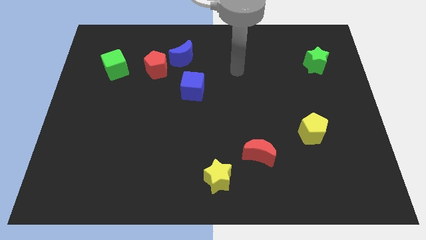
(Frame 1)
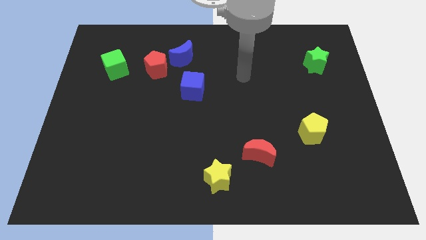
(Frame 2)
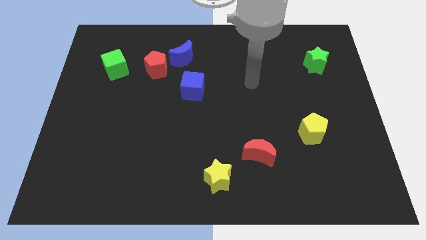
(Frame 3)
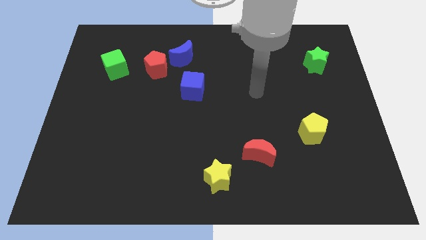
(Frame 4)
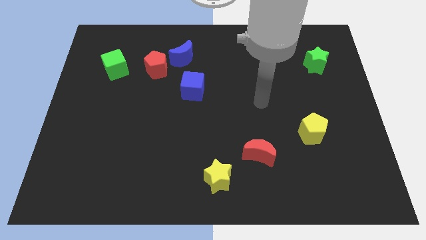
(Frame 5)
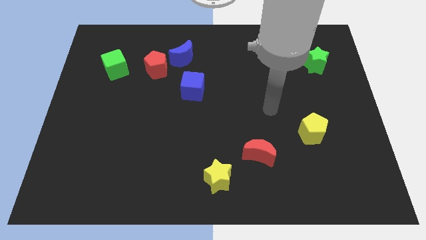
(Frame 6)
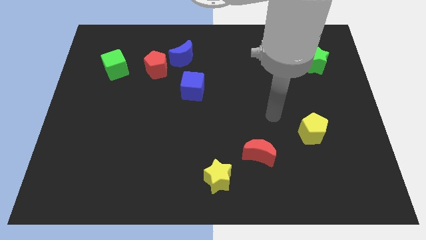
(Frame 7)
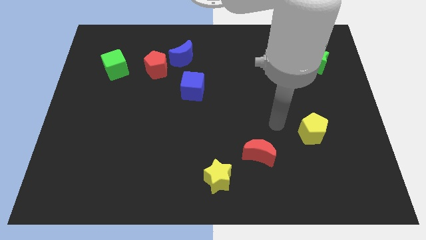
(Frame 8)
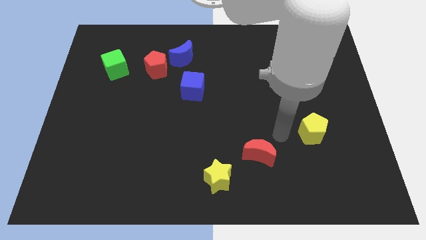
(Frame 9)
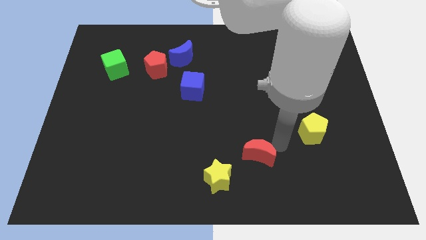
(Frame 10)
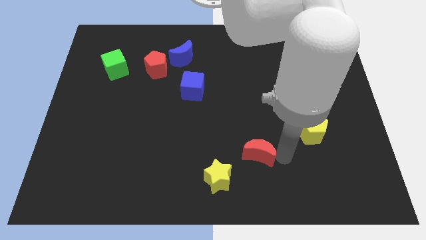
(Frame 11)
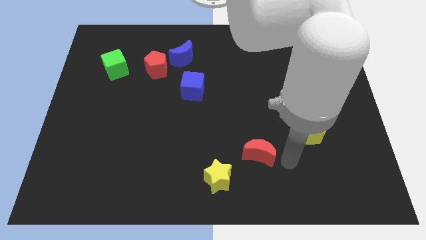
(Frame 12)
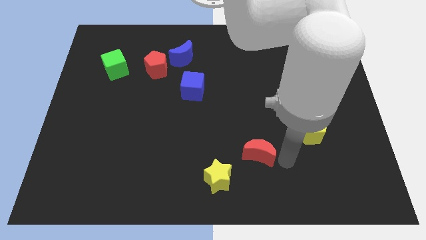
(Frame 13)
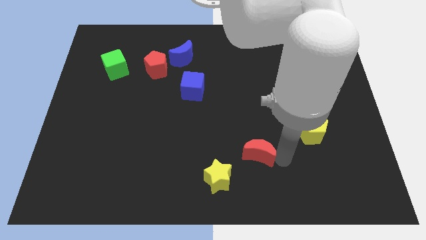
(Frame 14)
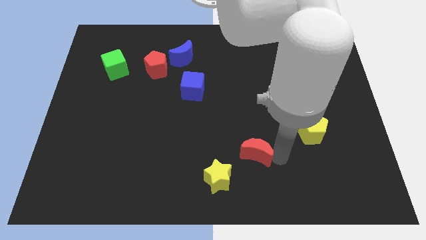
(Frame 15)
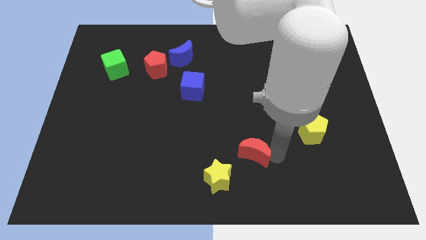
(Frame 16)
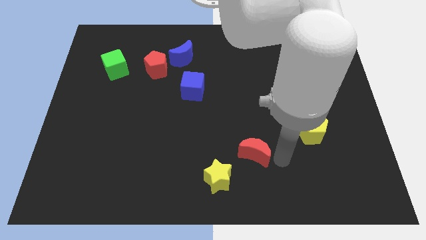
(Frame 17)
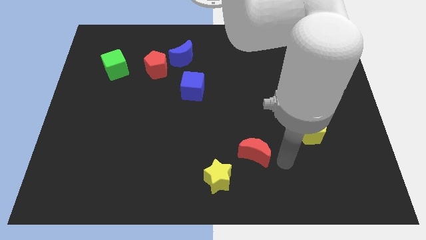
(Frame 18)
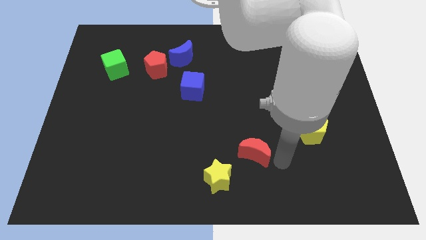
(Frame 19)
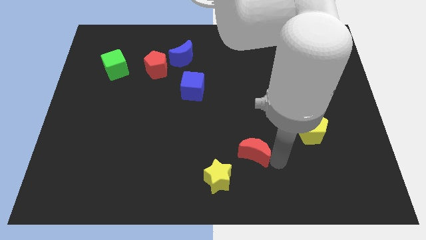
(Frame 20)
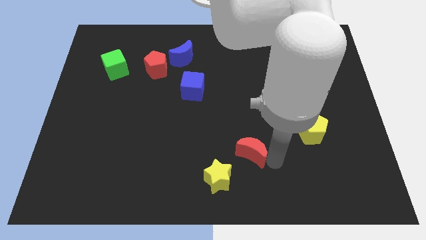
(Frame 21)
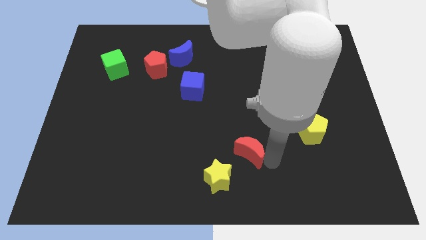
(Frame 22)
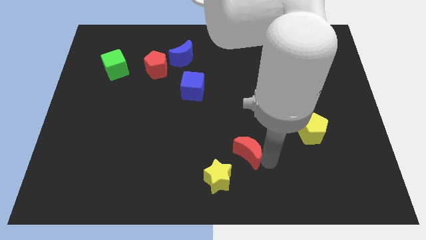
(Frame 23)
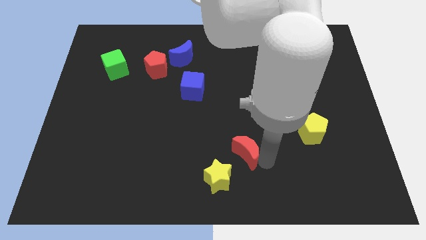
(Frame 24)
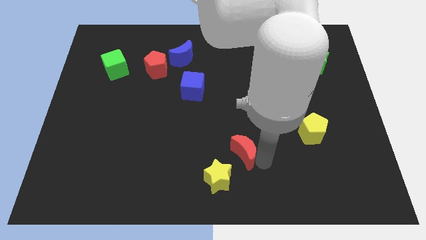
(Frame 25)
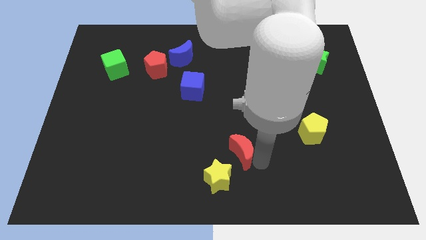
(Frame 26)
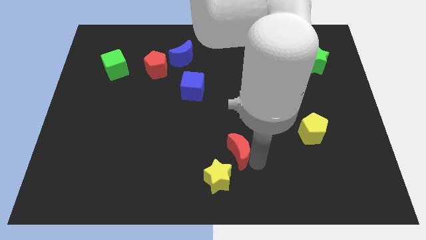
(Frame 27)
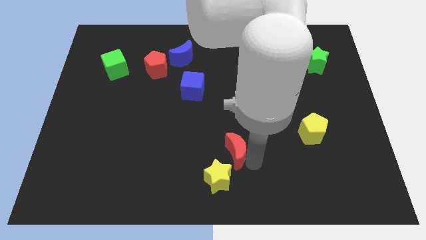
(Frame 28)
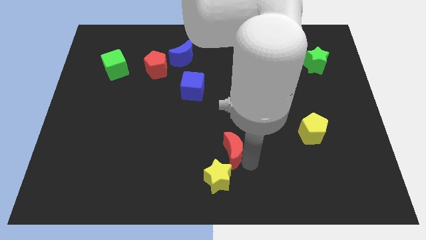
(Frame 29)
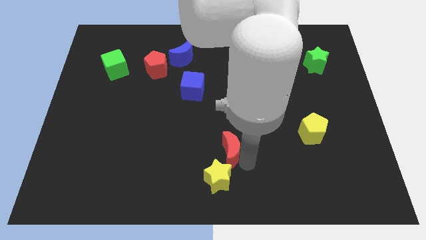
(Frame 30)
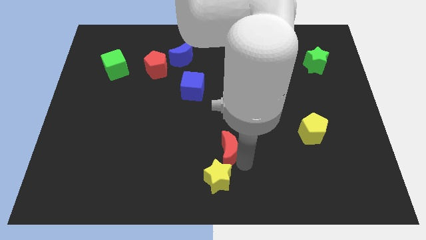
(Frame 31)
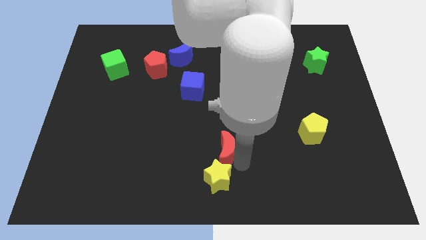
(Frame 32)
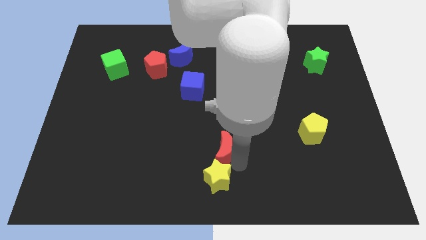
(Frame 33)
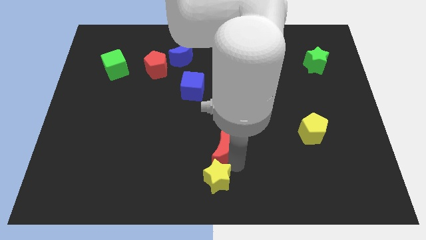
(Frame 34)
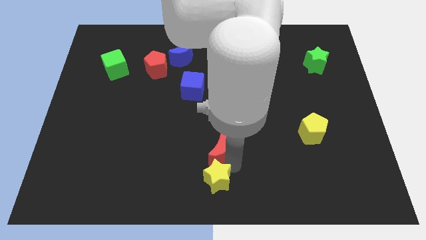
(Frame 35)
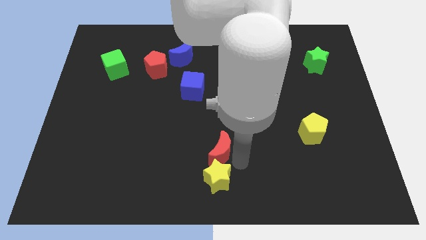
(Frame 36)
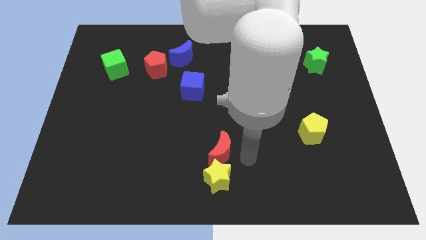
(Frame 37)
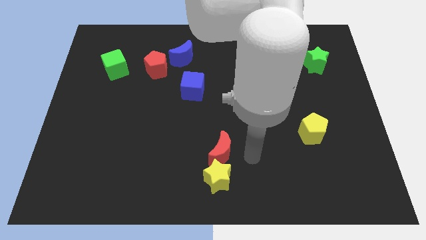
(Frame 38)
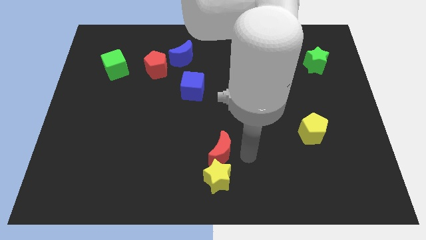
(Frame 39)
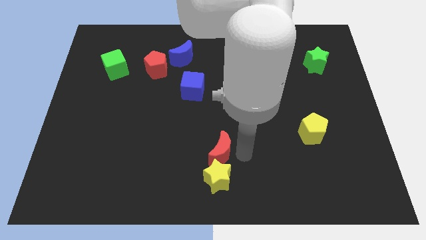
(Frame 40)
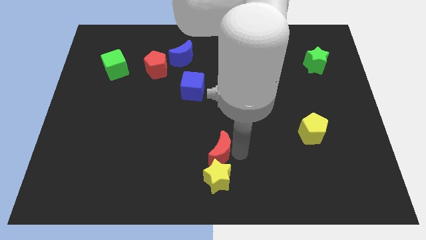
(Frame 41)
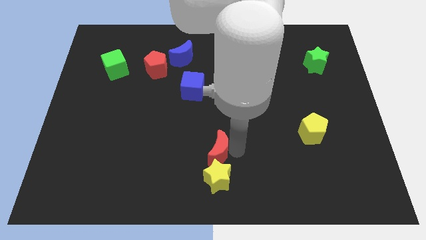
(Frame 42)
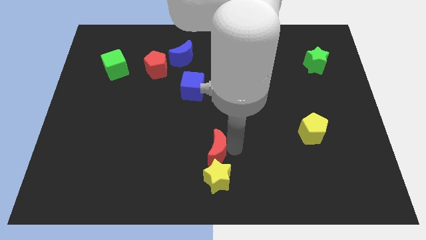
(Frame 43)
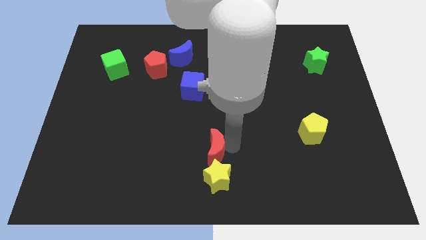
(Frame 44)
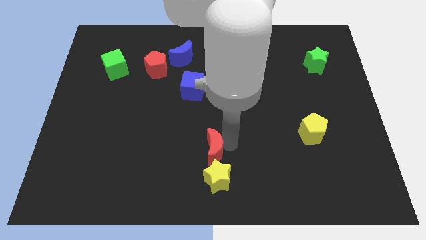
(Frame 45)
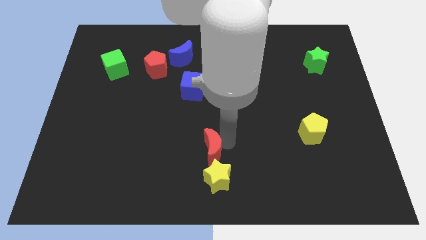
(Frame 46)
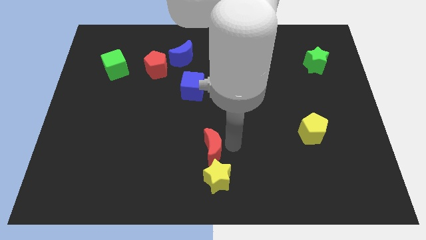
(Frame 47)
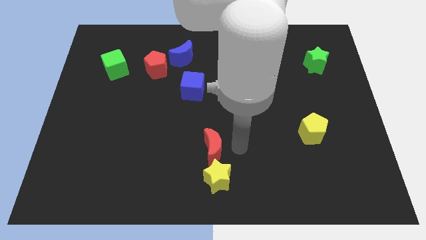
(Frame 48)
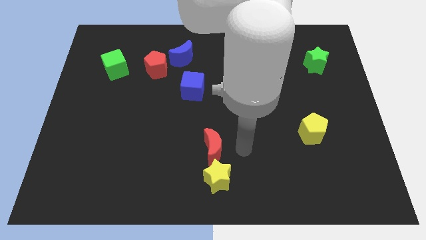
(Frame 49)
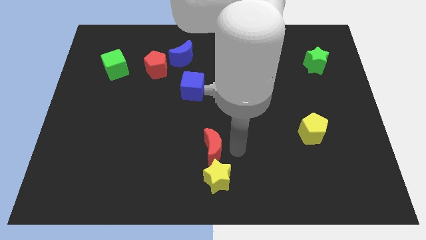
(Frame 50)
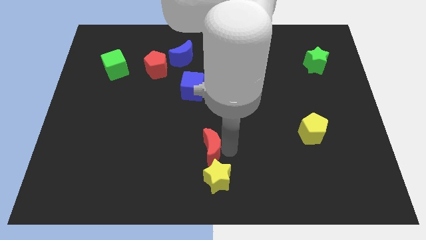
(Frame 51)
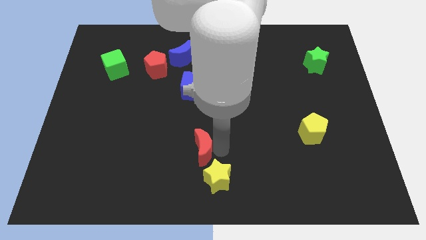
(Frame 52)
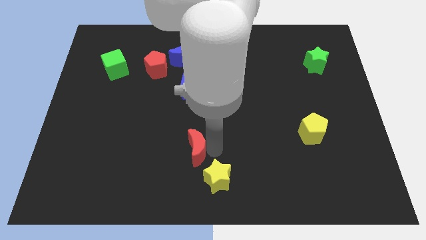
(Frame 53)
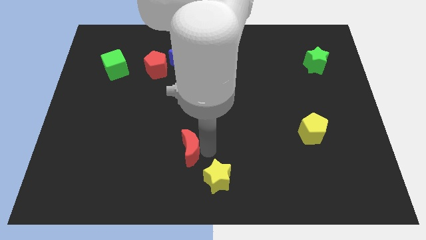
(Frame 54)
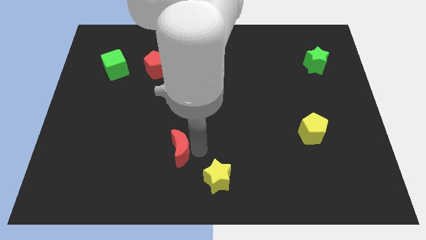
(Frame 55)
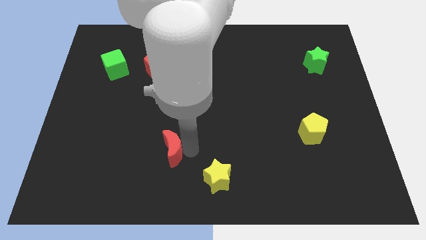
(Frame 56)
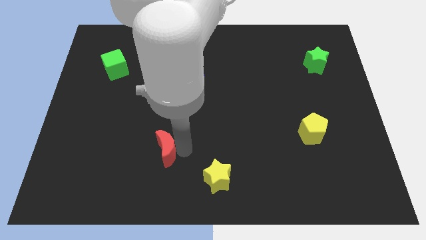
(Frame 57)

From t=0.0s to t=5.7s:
slide the red moon to the left

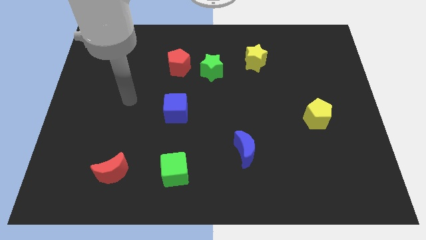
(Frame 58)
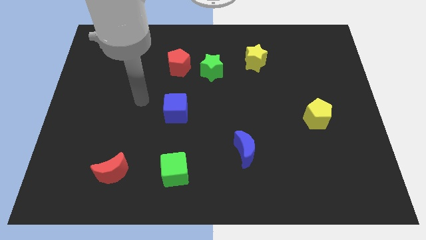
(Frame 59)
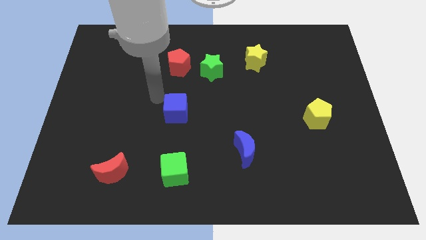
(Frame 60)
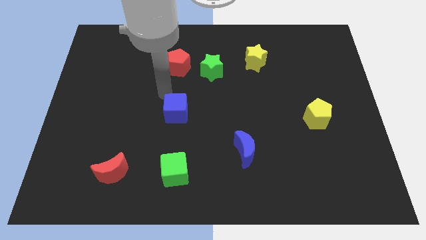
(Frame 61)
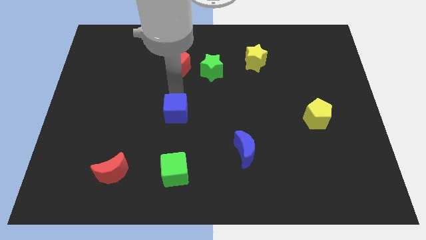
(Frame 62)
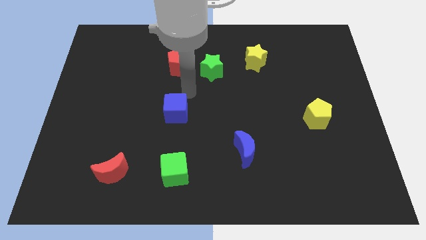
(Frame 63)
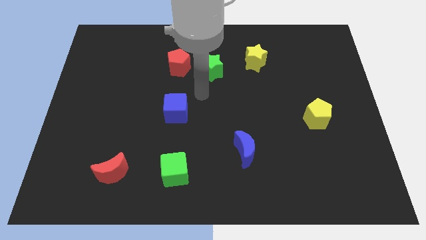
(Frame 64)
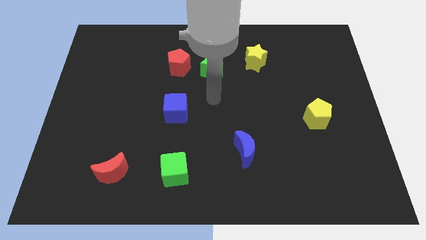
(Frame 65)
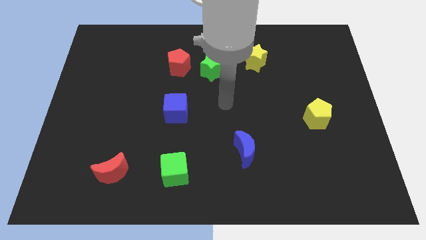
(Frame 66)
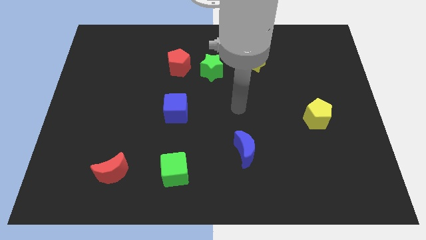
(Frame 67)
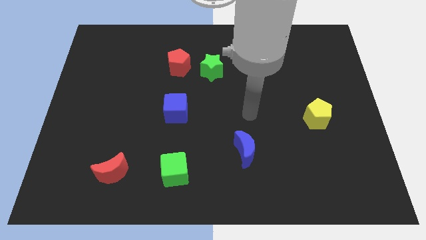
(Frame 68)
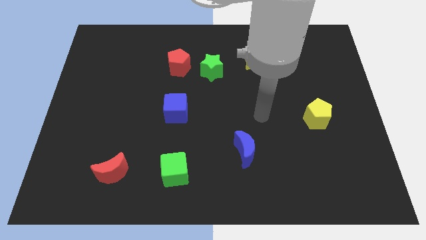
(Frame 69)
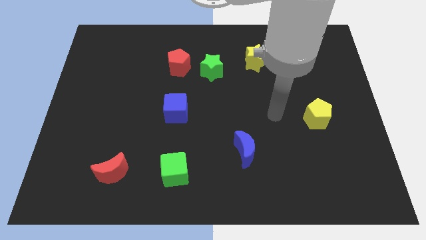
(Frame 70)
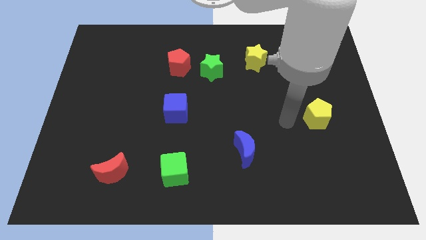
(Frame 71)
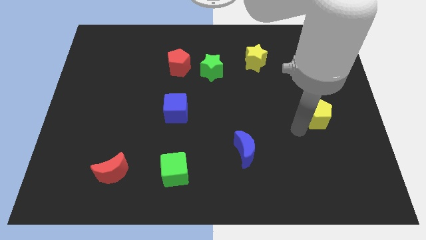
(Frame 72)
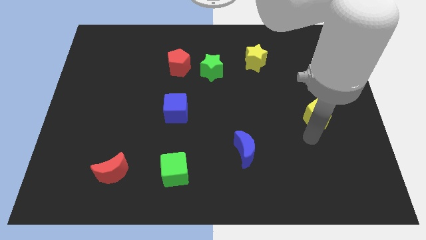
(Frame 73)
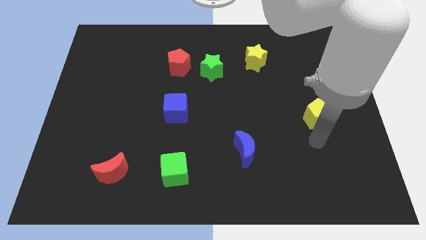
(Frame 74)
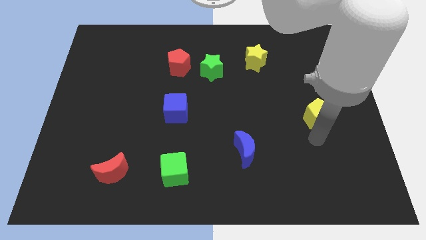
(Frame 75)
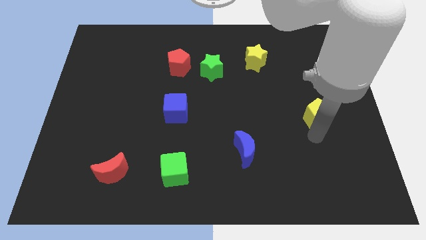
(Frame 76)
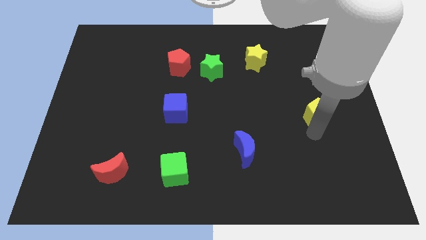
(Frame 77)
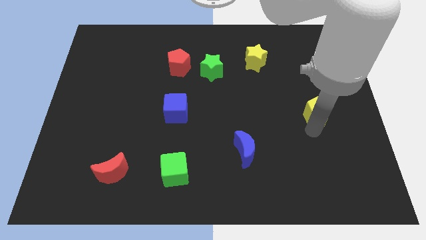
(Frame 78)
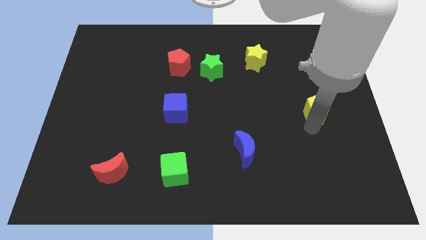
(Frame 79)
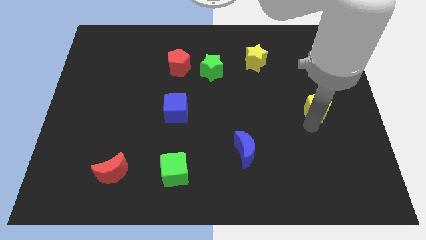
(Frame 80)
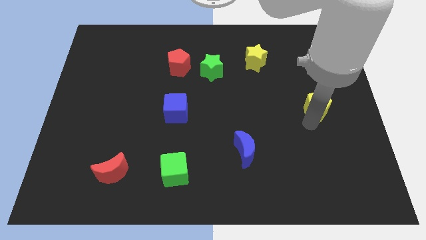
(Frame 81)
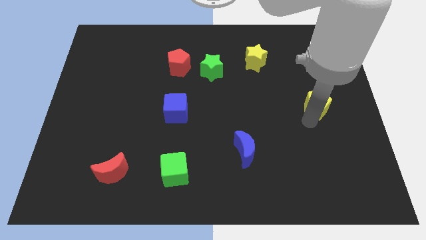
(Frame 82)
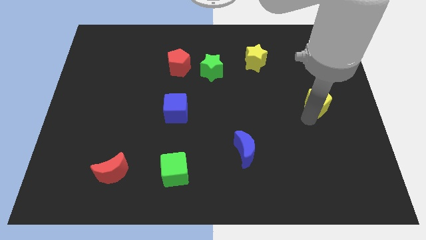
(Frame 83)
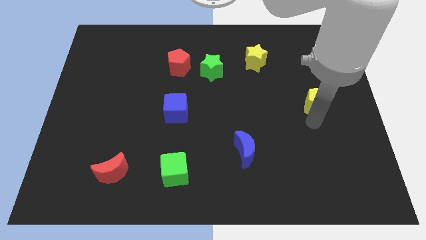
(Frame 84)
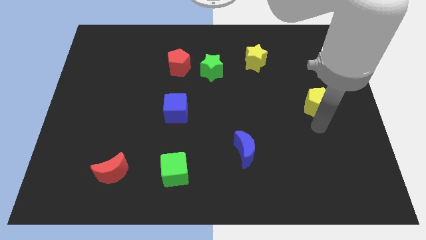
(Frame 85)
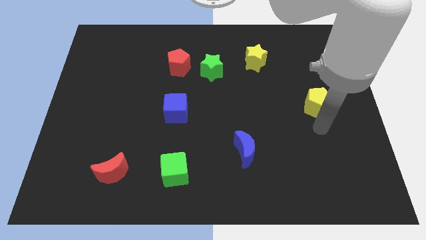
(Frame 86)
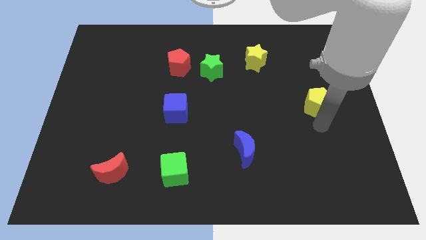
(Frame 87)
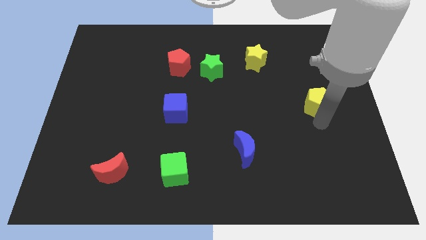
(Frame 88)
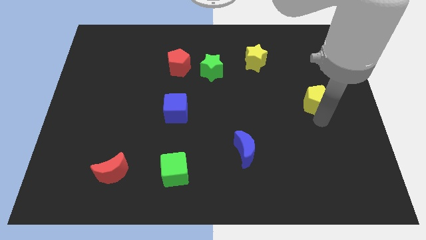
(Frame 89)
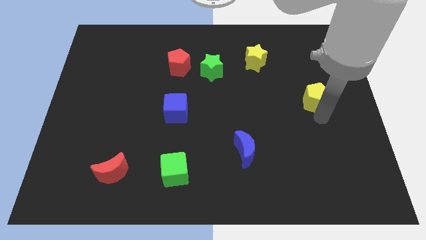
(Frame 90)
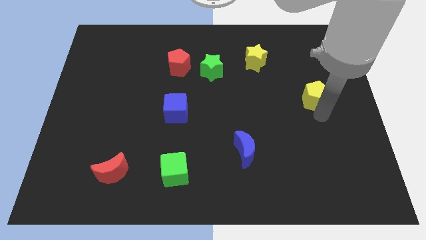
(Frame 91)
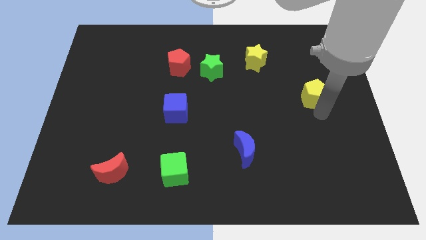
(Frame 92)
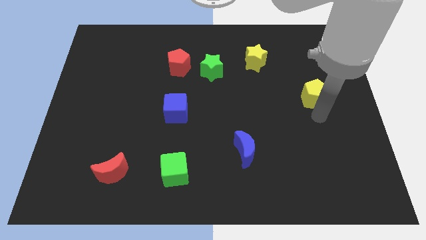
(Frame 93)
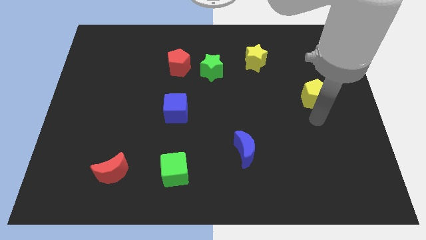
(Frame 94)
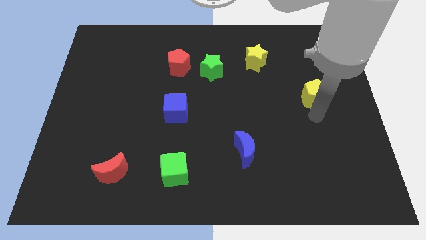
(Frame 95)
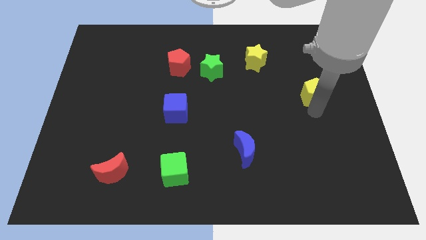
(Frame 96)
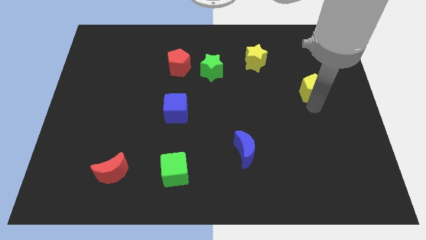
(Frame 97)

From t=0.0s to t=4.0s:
slightly push the yellow pentagon up
